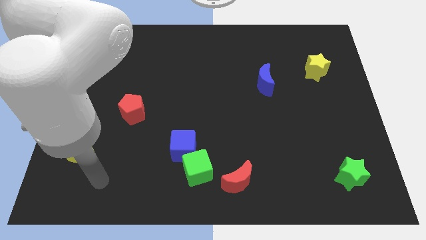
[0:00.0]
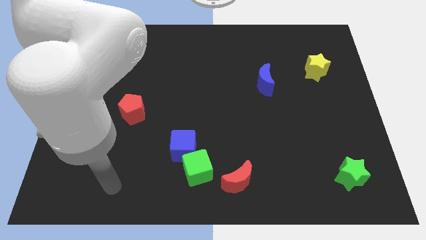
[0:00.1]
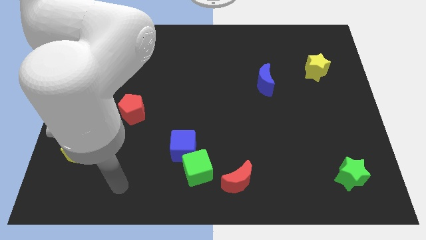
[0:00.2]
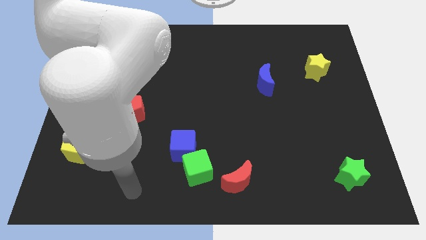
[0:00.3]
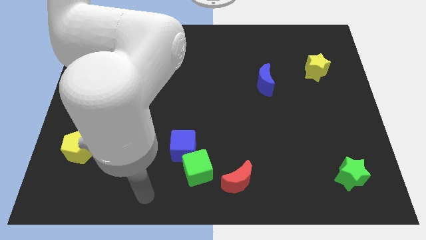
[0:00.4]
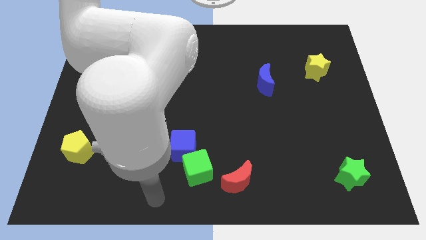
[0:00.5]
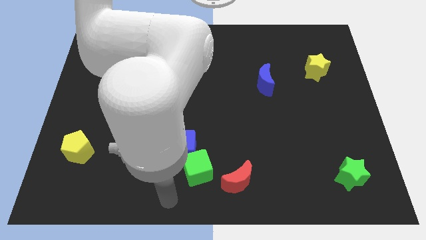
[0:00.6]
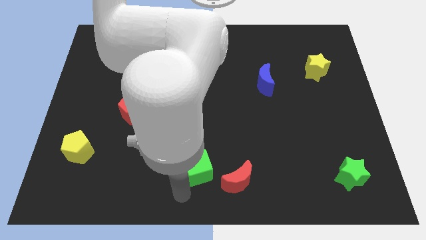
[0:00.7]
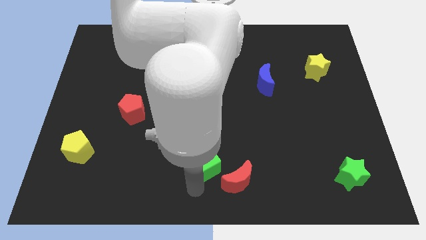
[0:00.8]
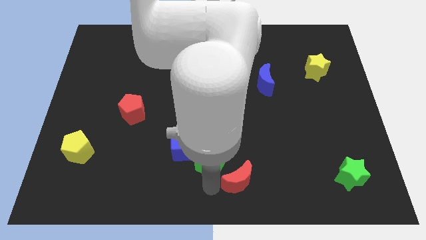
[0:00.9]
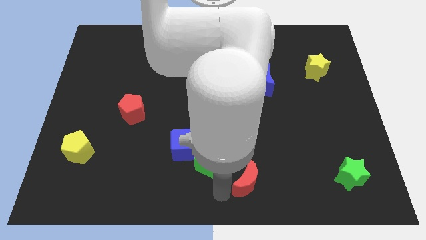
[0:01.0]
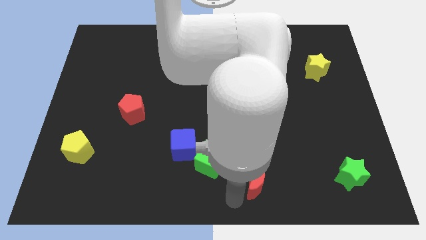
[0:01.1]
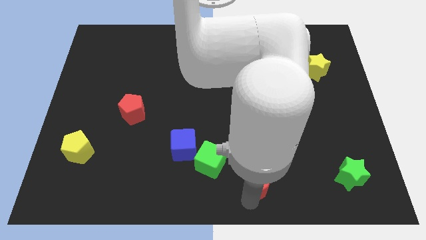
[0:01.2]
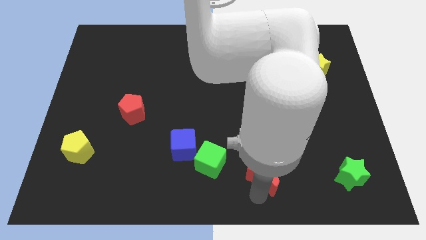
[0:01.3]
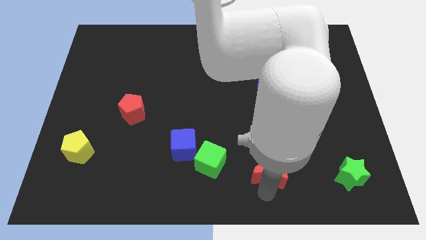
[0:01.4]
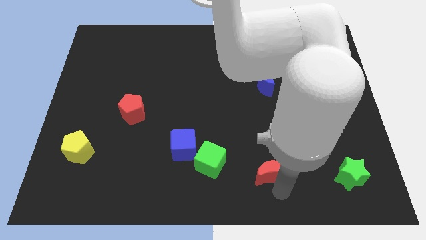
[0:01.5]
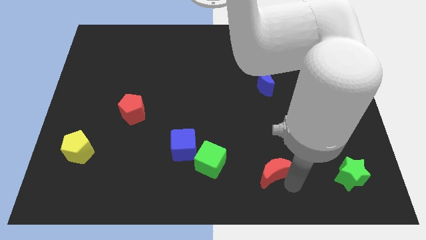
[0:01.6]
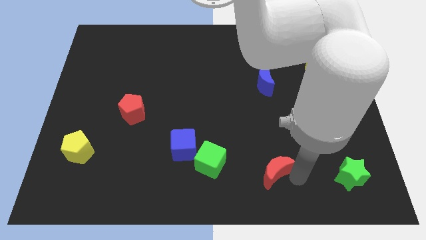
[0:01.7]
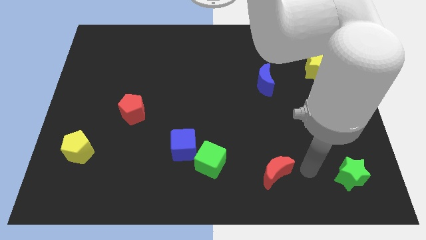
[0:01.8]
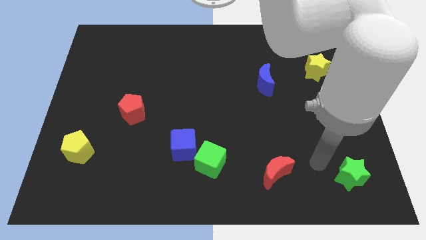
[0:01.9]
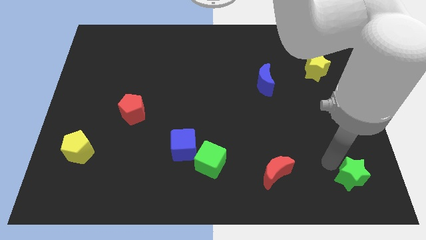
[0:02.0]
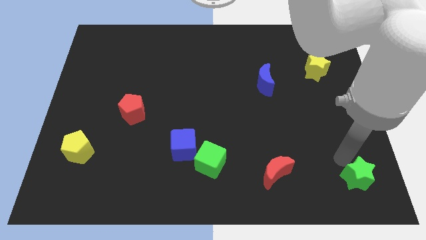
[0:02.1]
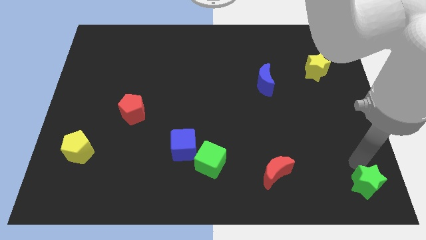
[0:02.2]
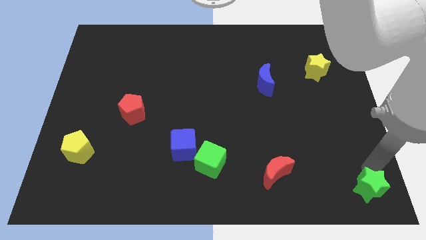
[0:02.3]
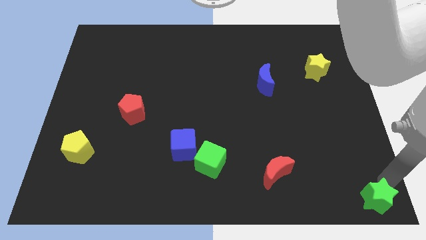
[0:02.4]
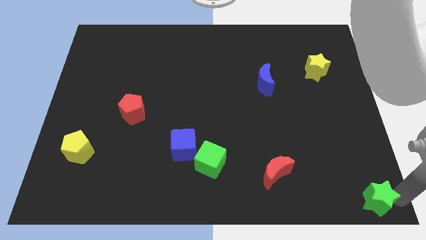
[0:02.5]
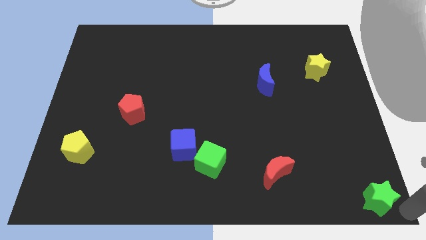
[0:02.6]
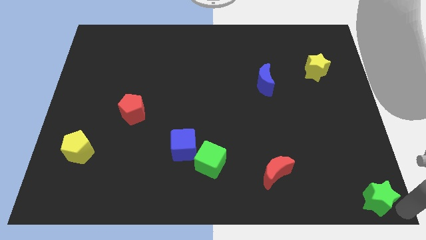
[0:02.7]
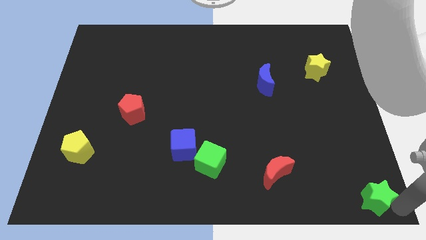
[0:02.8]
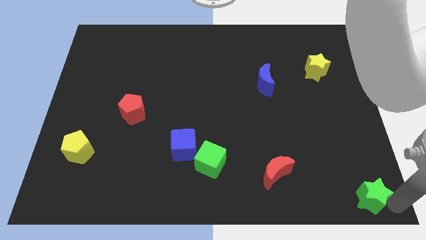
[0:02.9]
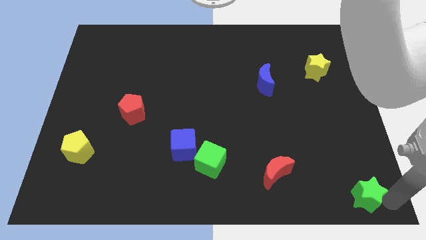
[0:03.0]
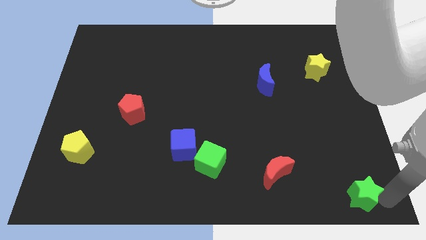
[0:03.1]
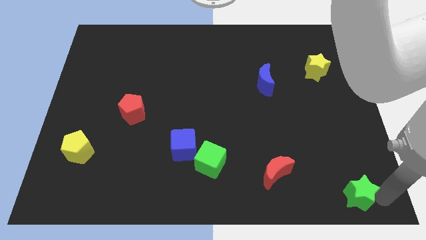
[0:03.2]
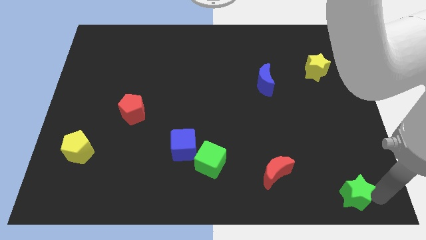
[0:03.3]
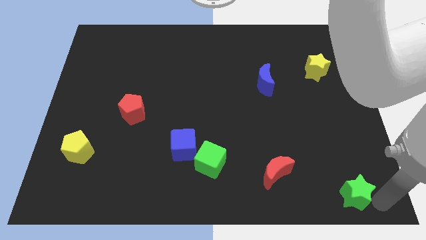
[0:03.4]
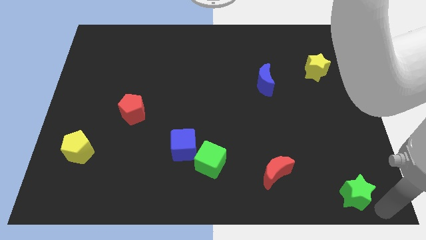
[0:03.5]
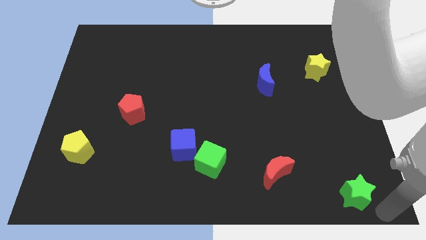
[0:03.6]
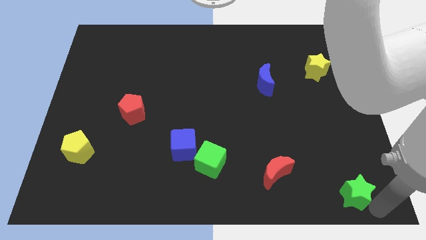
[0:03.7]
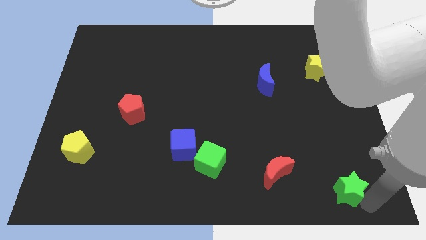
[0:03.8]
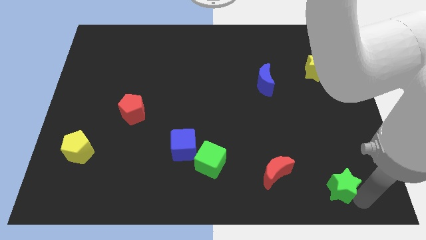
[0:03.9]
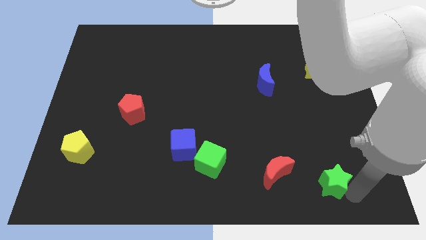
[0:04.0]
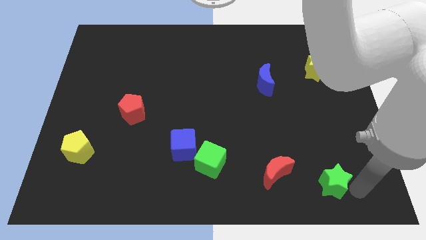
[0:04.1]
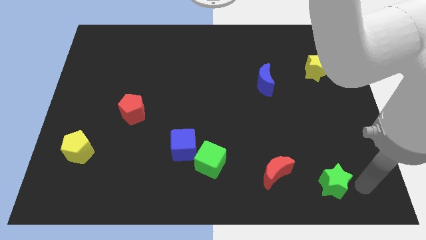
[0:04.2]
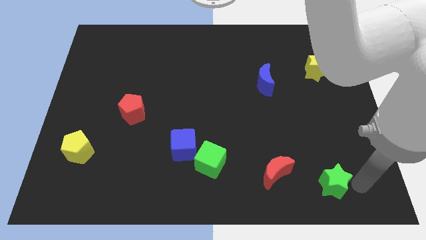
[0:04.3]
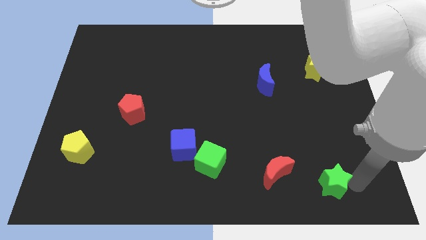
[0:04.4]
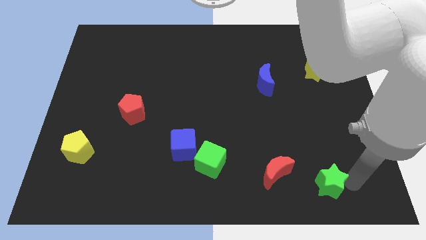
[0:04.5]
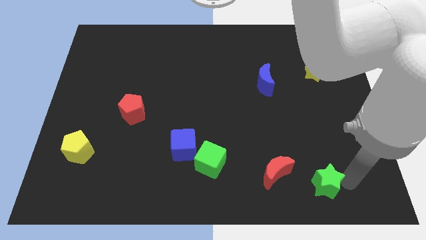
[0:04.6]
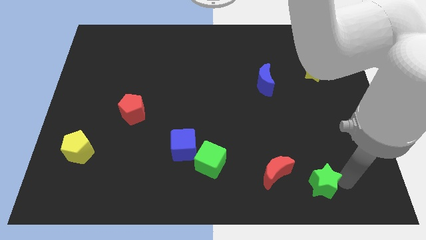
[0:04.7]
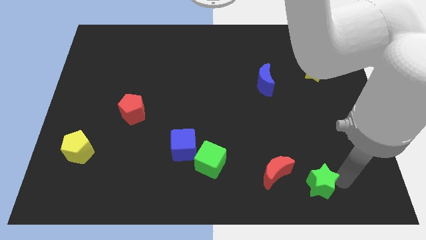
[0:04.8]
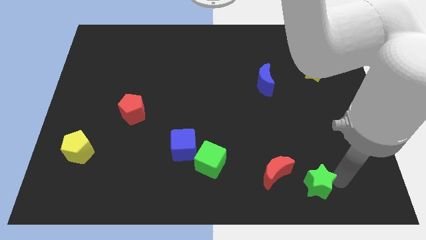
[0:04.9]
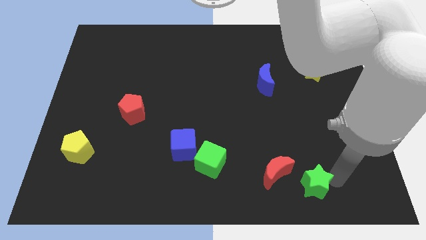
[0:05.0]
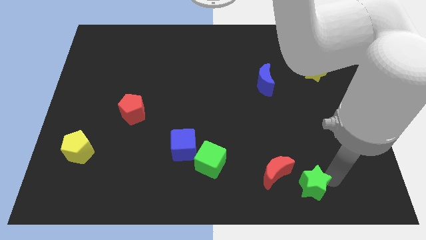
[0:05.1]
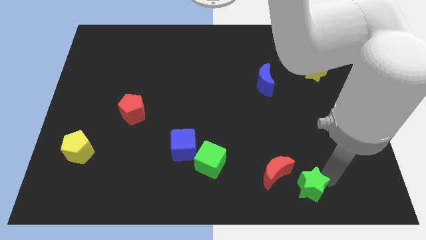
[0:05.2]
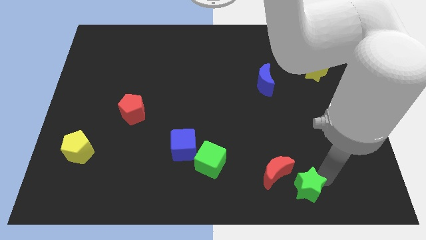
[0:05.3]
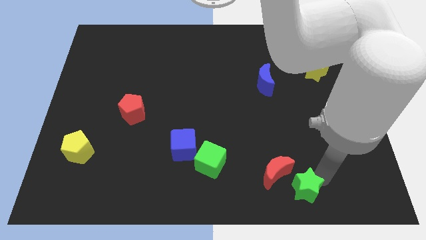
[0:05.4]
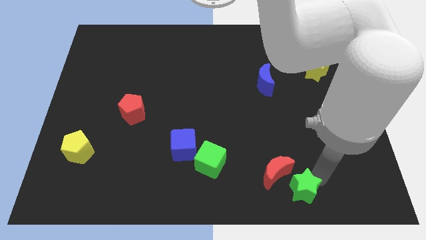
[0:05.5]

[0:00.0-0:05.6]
put the green star next to the red moon

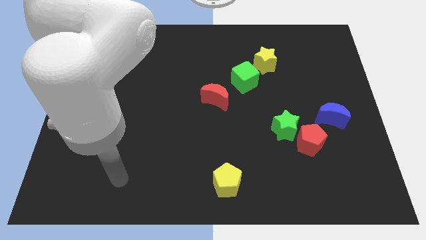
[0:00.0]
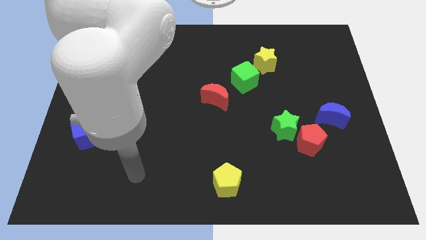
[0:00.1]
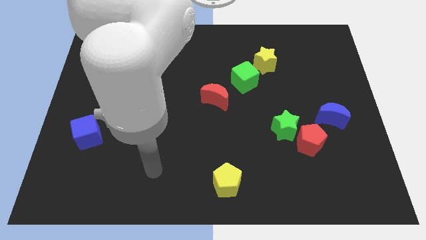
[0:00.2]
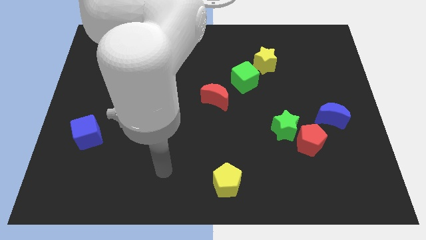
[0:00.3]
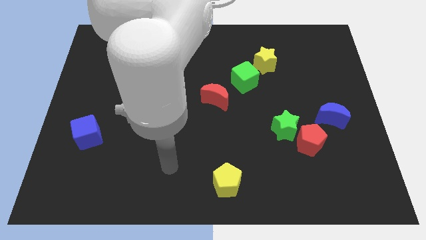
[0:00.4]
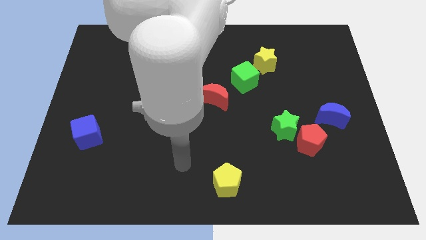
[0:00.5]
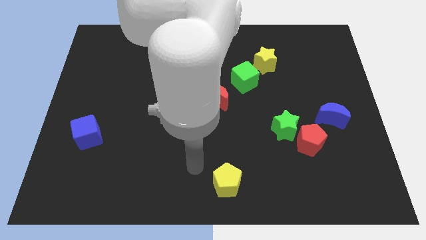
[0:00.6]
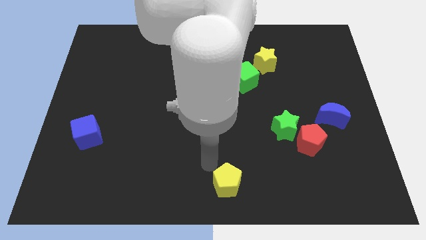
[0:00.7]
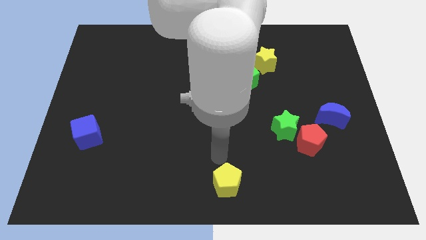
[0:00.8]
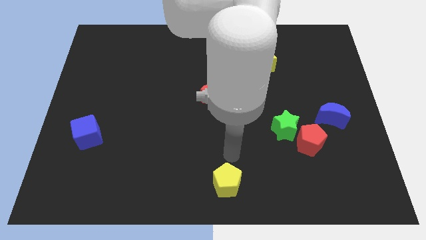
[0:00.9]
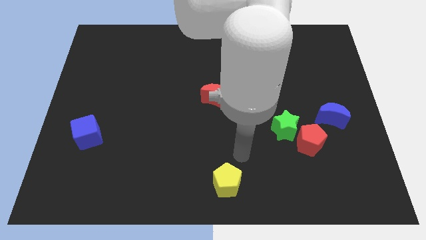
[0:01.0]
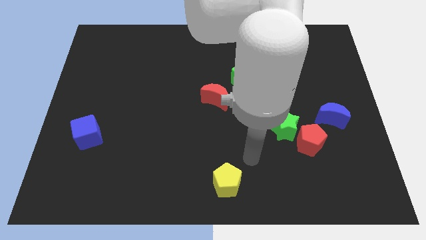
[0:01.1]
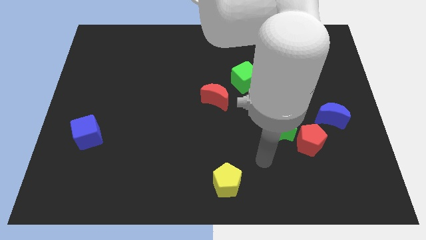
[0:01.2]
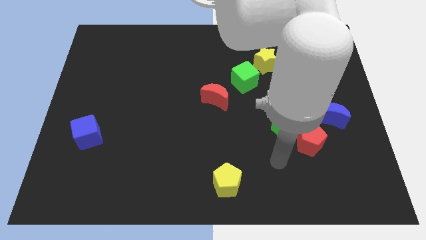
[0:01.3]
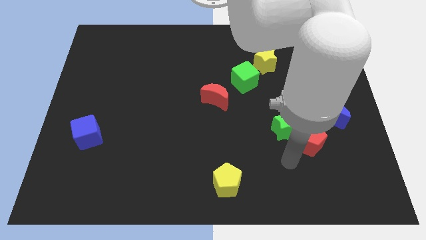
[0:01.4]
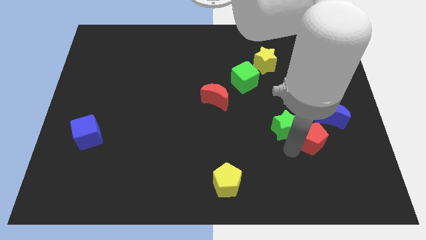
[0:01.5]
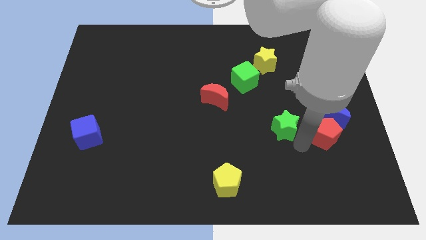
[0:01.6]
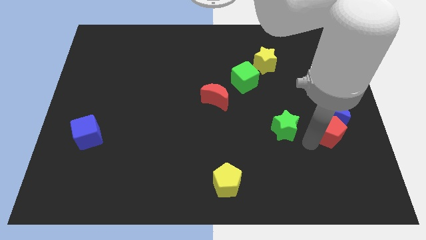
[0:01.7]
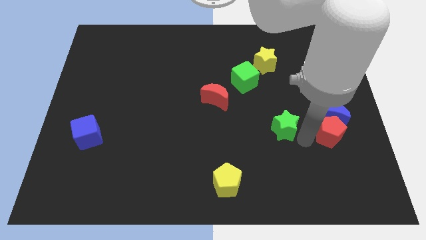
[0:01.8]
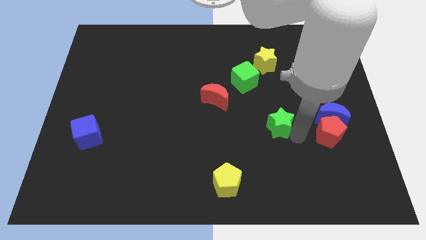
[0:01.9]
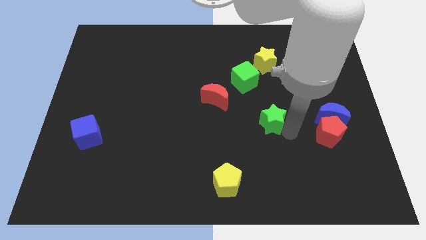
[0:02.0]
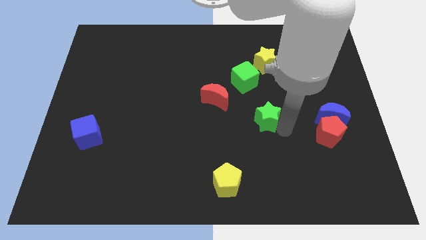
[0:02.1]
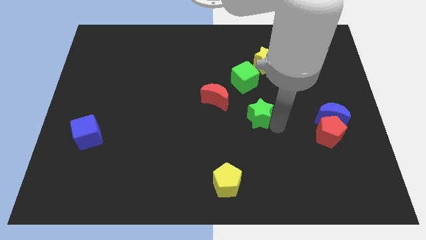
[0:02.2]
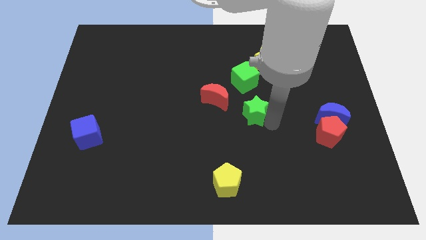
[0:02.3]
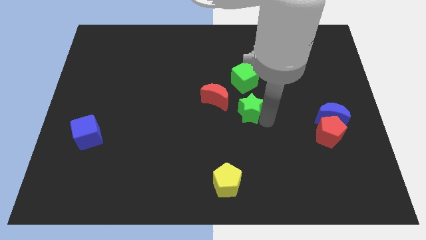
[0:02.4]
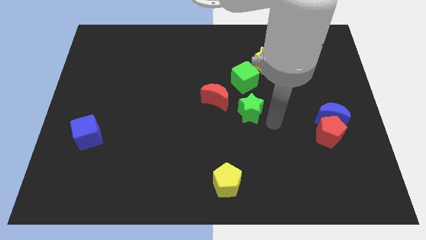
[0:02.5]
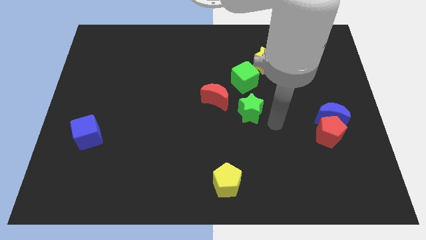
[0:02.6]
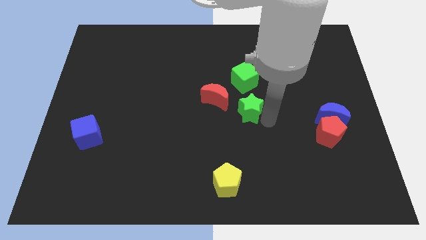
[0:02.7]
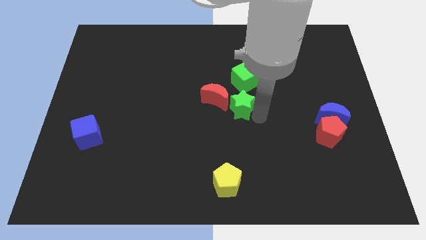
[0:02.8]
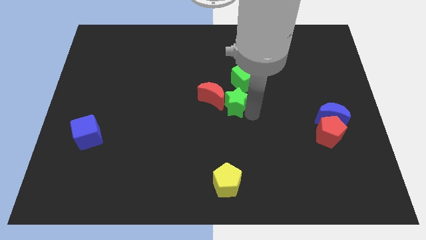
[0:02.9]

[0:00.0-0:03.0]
slide the green star next to the red moon
